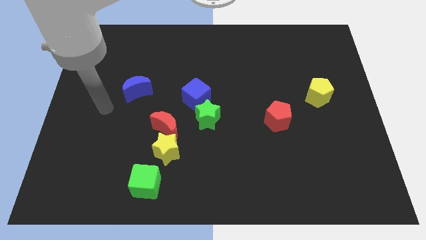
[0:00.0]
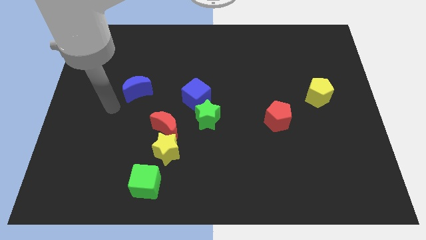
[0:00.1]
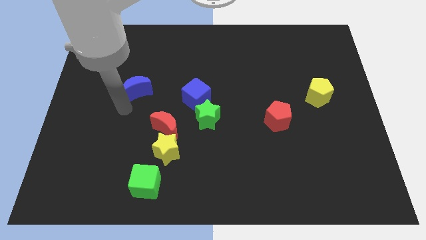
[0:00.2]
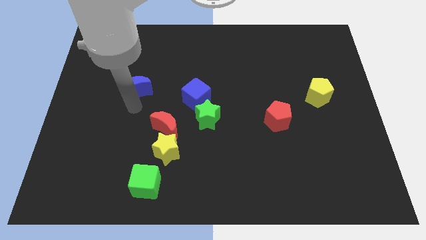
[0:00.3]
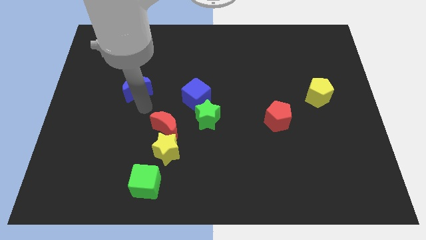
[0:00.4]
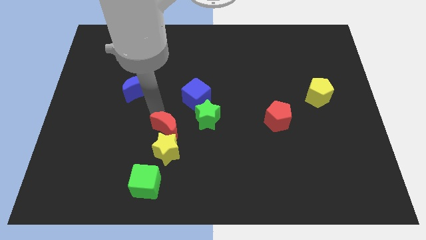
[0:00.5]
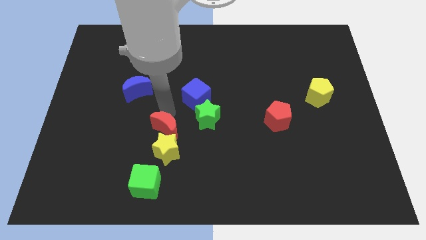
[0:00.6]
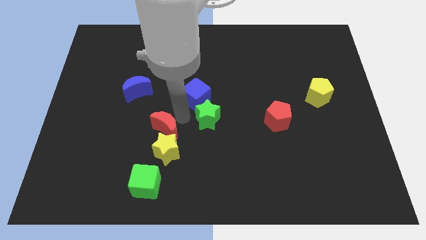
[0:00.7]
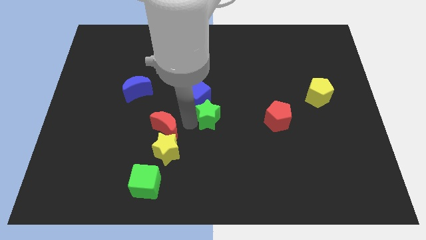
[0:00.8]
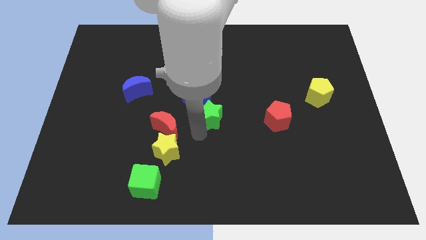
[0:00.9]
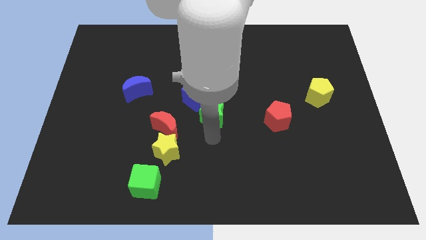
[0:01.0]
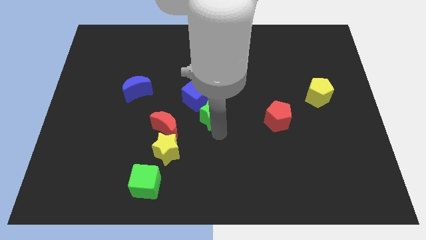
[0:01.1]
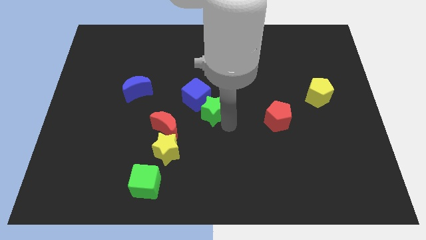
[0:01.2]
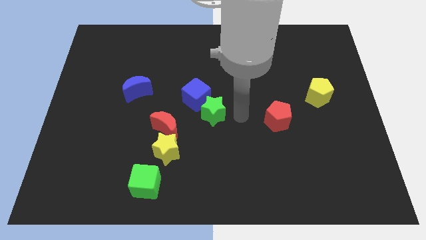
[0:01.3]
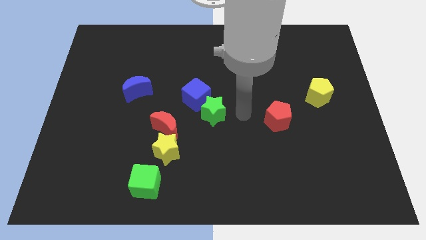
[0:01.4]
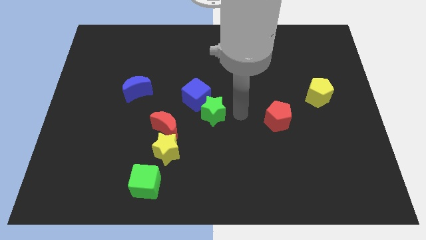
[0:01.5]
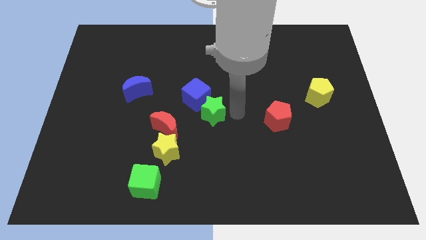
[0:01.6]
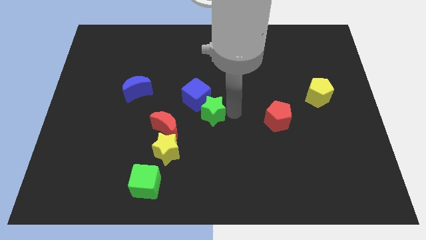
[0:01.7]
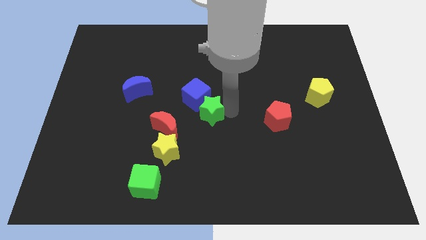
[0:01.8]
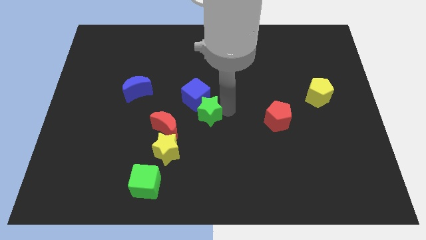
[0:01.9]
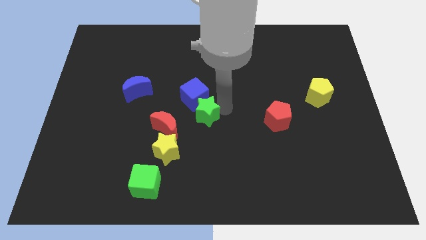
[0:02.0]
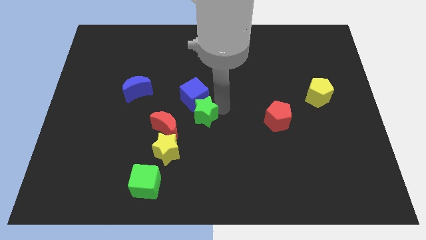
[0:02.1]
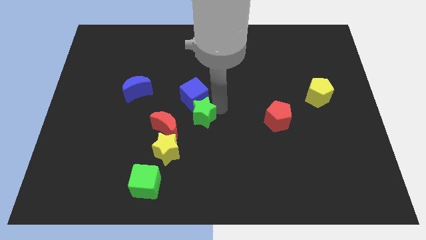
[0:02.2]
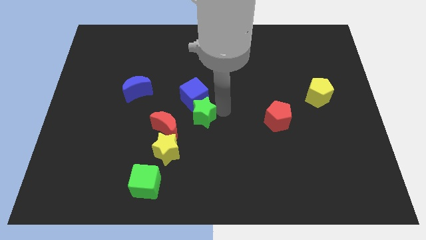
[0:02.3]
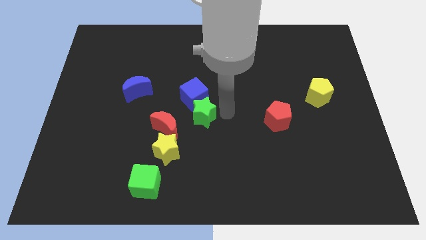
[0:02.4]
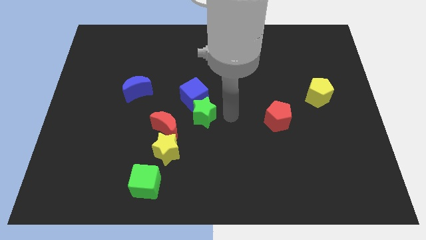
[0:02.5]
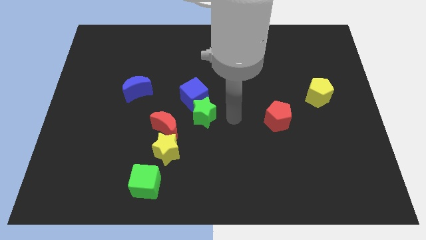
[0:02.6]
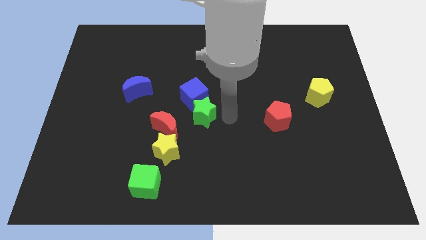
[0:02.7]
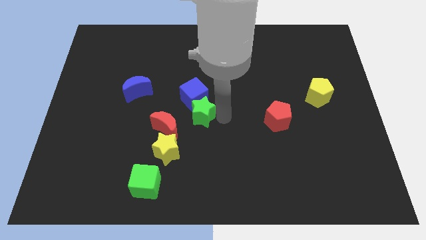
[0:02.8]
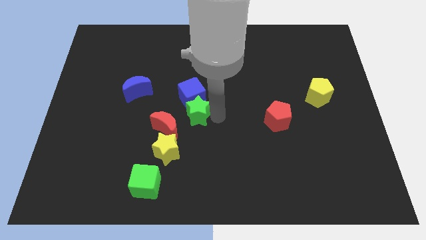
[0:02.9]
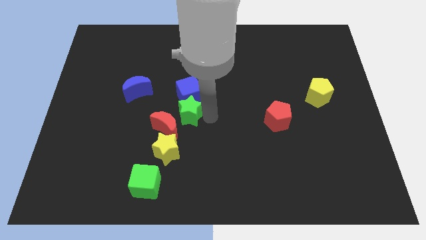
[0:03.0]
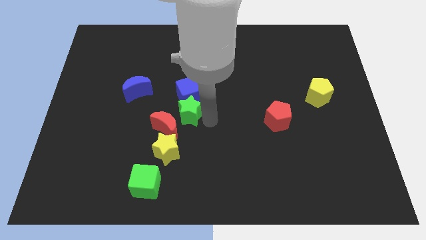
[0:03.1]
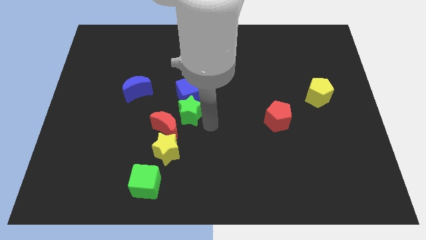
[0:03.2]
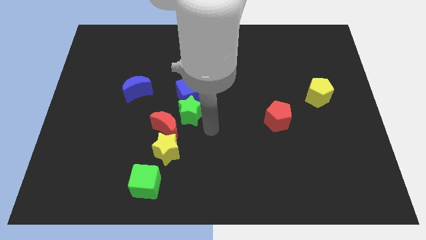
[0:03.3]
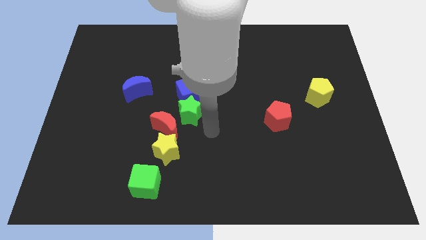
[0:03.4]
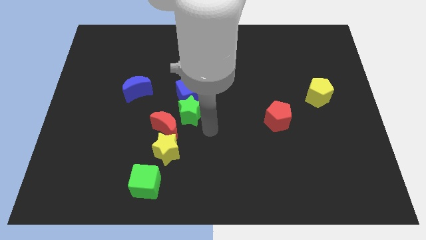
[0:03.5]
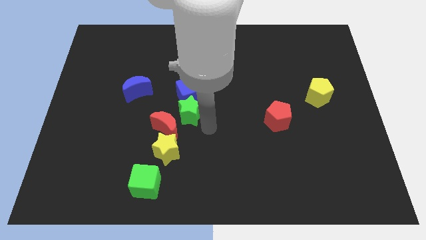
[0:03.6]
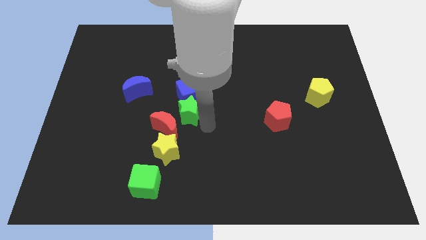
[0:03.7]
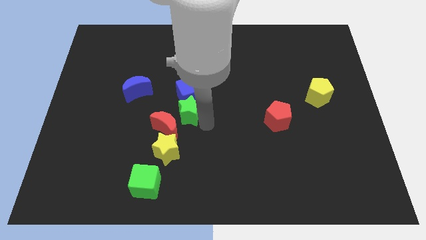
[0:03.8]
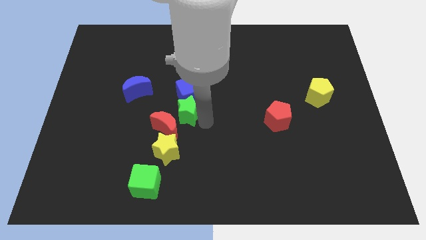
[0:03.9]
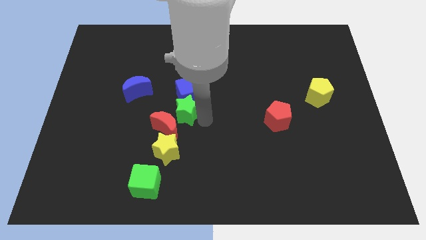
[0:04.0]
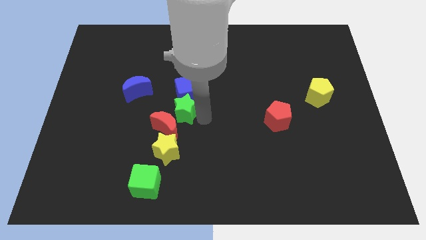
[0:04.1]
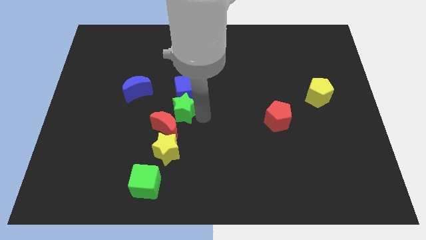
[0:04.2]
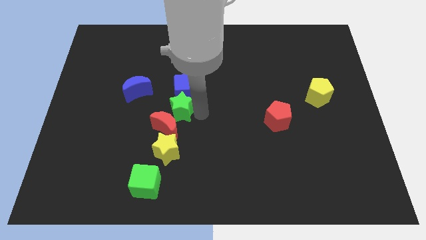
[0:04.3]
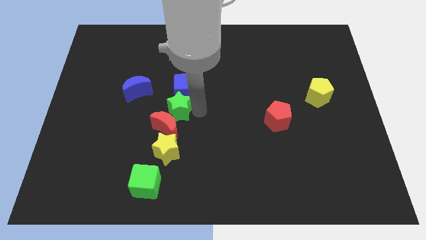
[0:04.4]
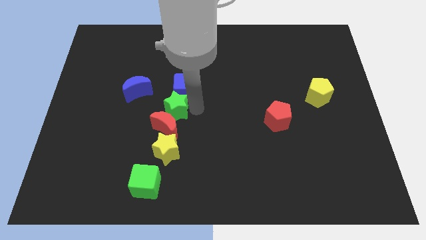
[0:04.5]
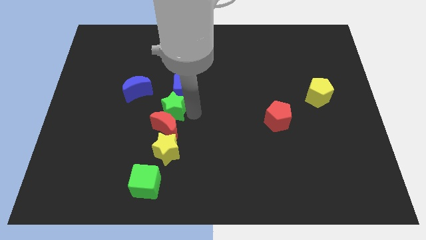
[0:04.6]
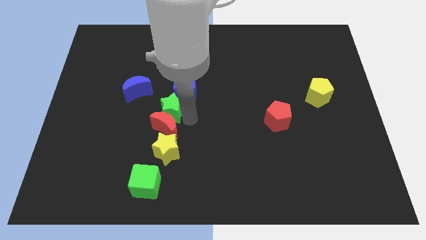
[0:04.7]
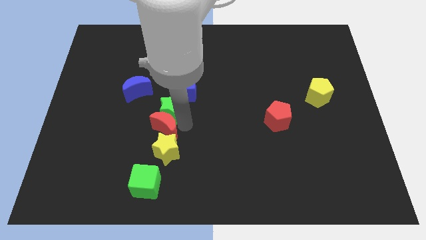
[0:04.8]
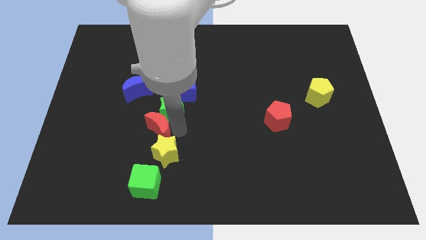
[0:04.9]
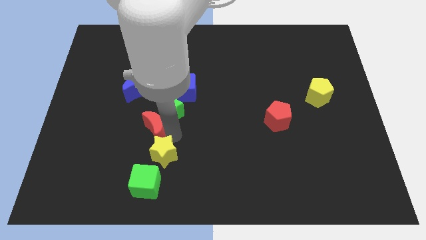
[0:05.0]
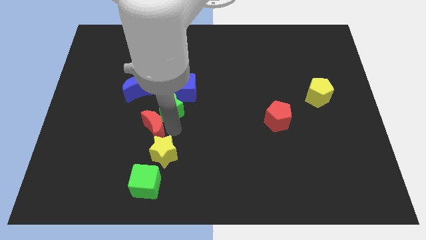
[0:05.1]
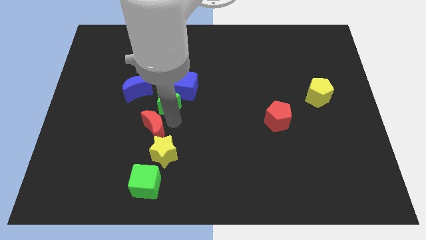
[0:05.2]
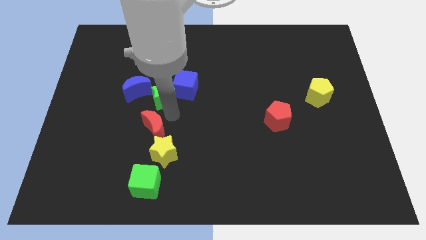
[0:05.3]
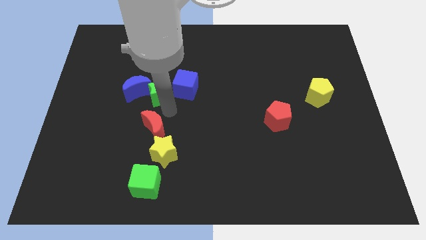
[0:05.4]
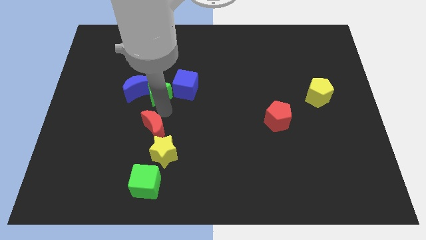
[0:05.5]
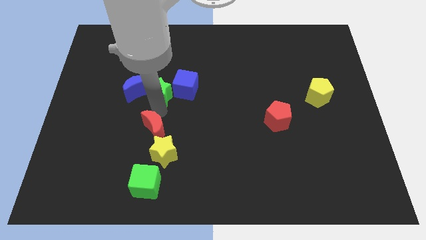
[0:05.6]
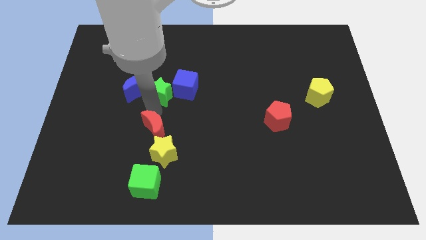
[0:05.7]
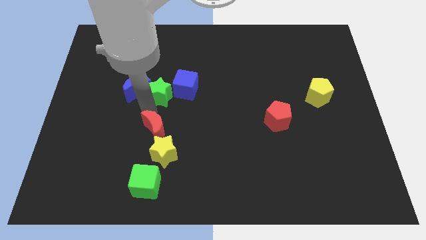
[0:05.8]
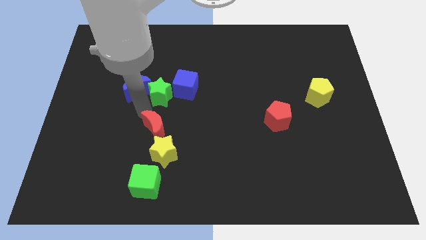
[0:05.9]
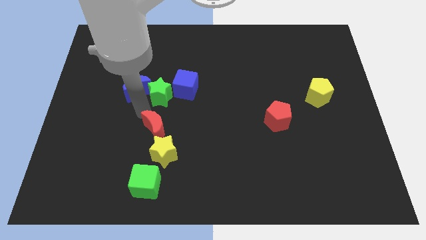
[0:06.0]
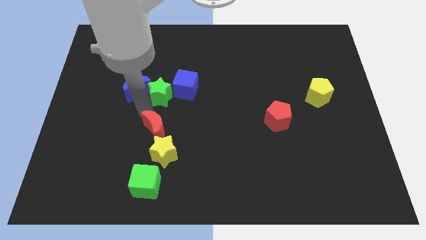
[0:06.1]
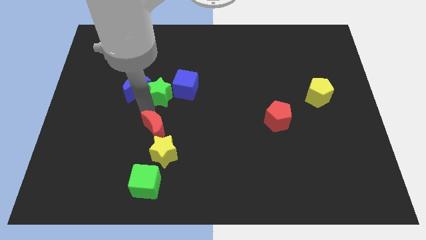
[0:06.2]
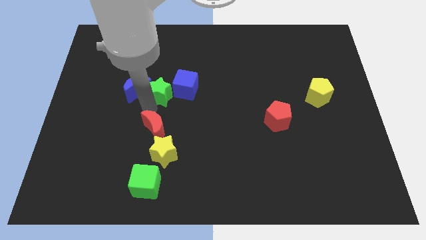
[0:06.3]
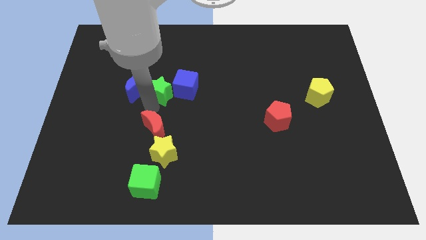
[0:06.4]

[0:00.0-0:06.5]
put the green star diagonally up and to the right of the blue moon

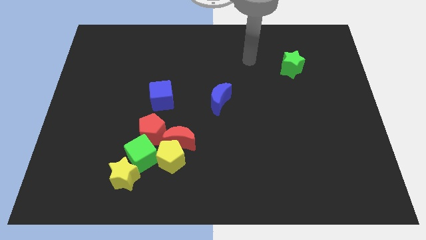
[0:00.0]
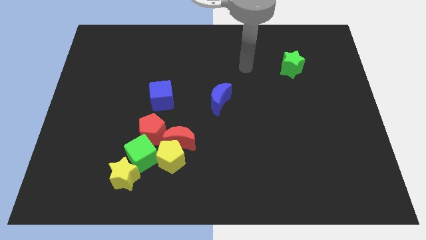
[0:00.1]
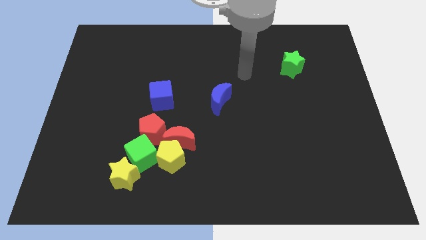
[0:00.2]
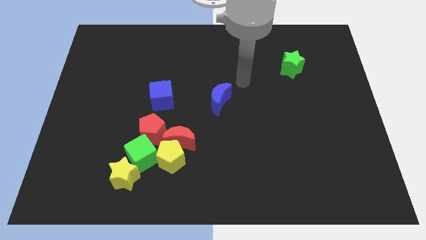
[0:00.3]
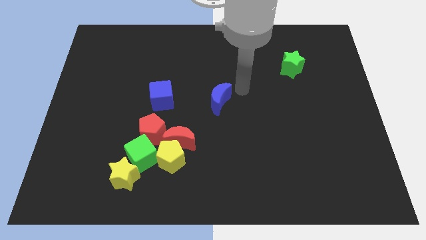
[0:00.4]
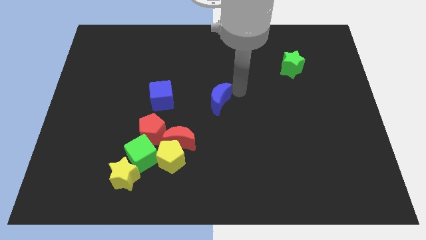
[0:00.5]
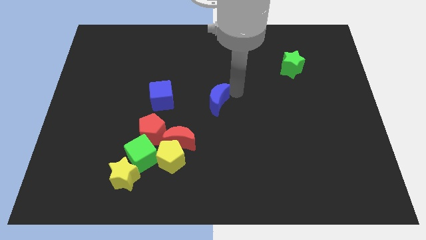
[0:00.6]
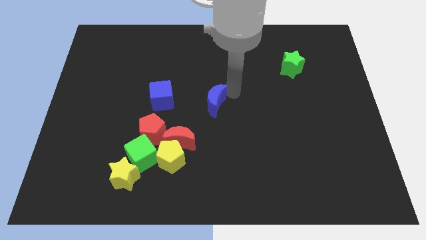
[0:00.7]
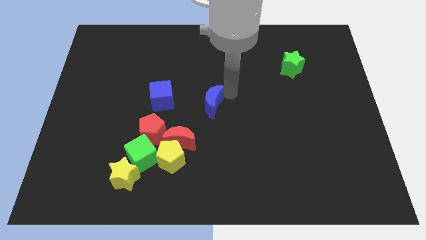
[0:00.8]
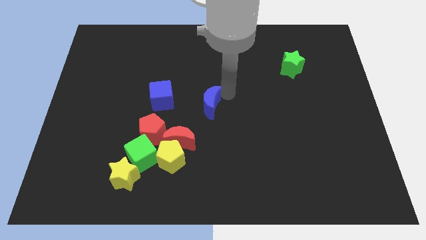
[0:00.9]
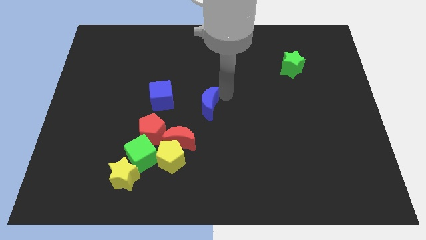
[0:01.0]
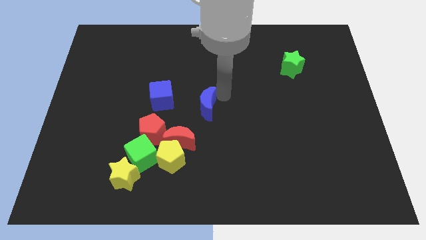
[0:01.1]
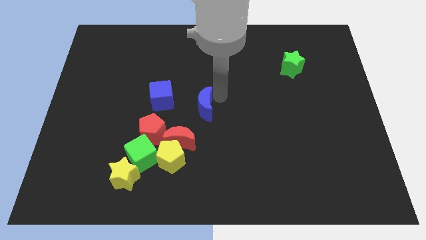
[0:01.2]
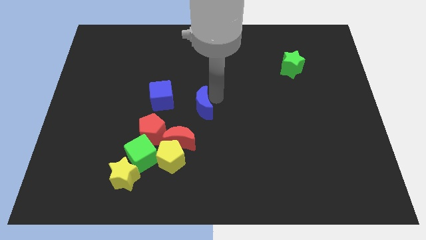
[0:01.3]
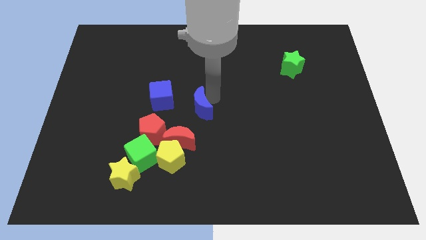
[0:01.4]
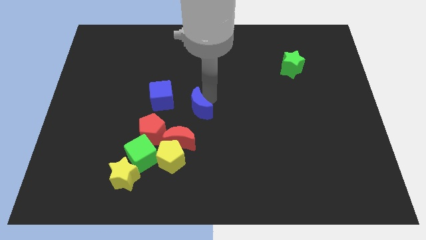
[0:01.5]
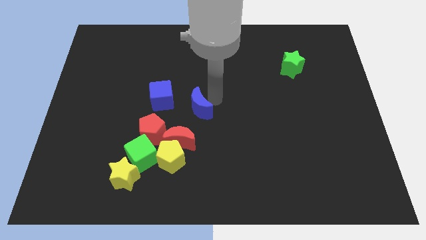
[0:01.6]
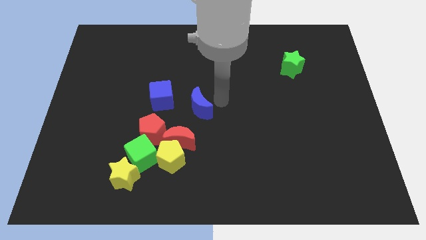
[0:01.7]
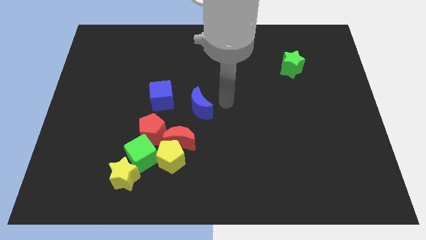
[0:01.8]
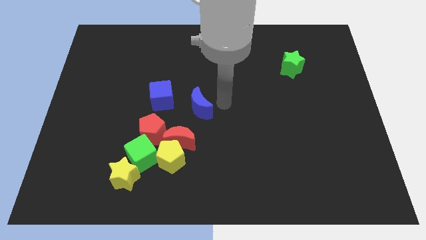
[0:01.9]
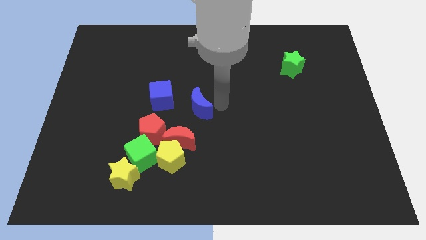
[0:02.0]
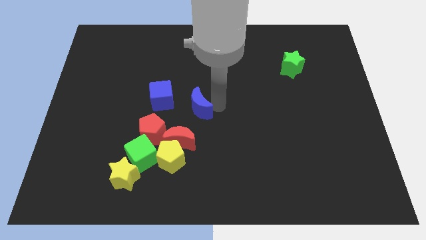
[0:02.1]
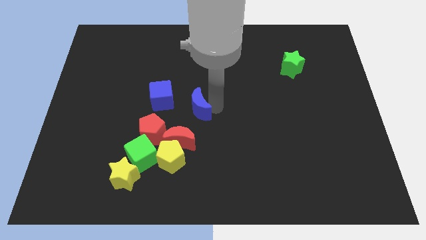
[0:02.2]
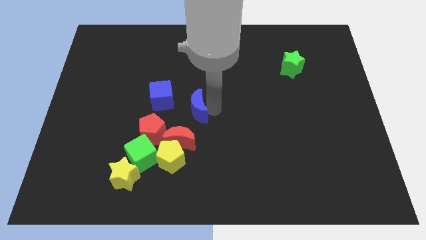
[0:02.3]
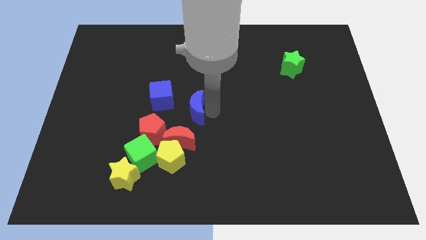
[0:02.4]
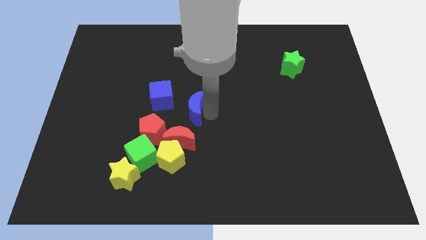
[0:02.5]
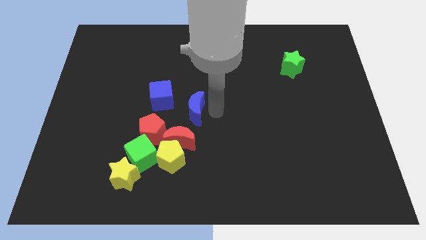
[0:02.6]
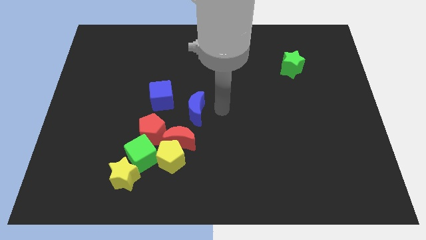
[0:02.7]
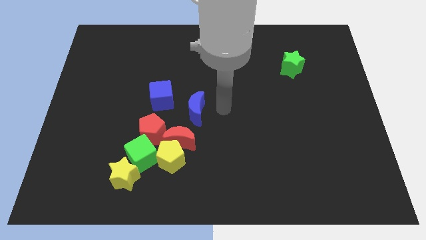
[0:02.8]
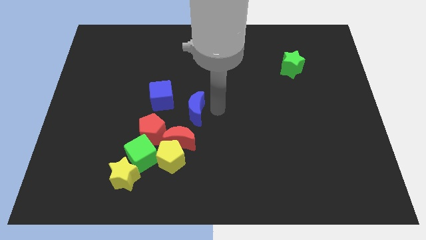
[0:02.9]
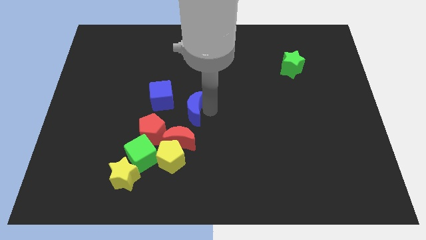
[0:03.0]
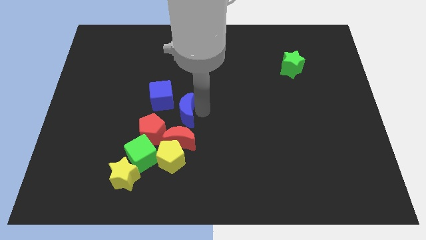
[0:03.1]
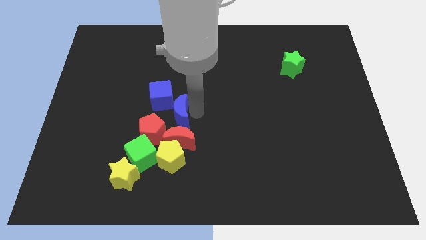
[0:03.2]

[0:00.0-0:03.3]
push the blue moon to the top left side of the red moon
